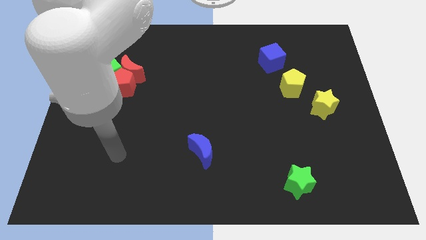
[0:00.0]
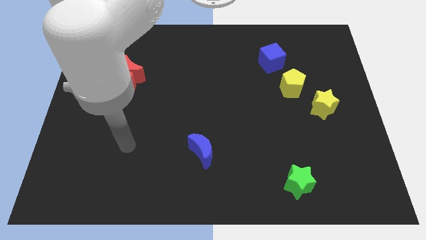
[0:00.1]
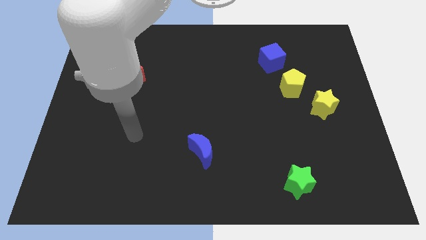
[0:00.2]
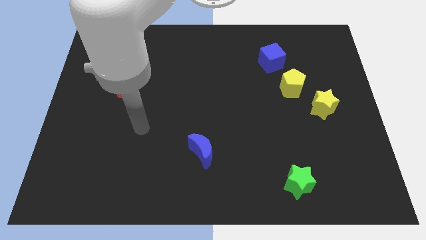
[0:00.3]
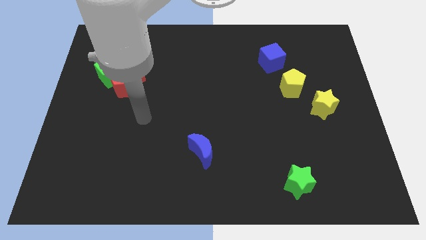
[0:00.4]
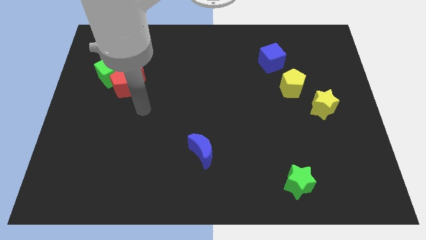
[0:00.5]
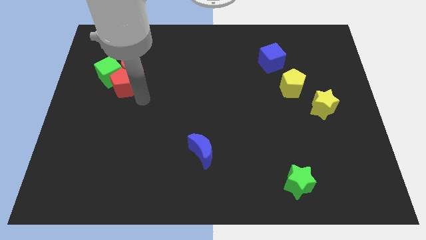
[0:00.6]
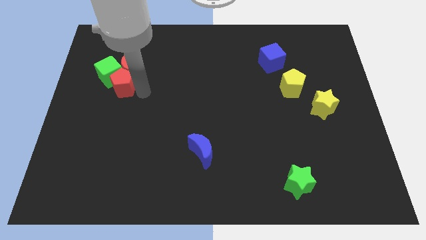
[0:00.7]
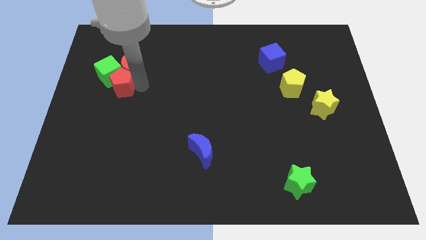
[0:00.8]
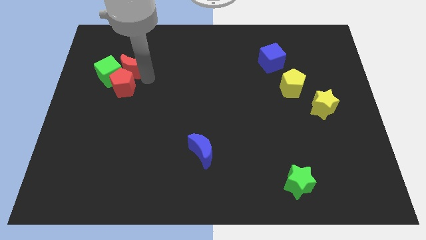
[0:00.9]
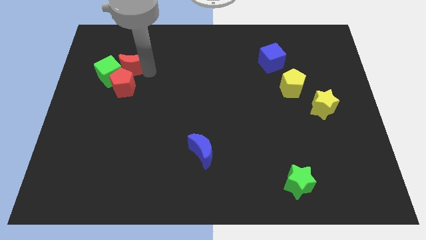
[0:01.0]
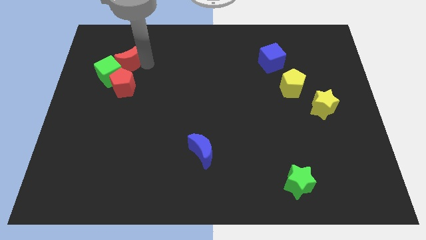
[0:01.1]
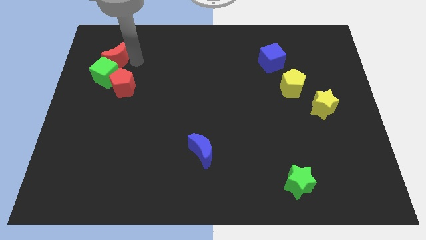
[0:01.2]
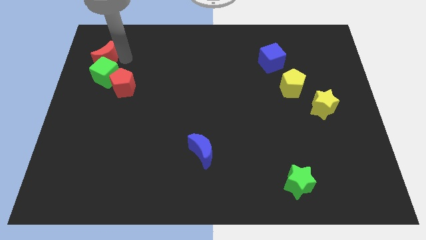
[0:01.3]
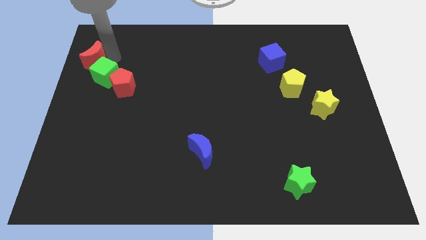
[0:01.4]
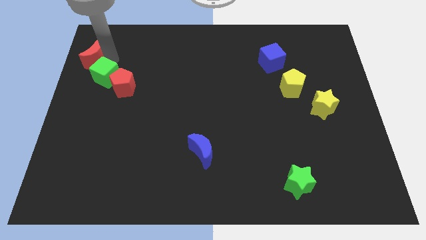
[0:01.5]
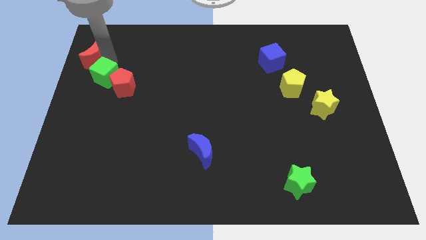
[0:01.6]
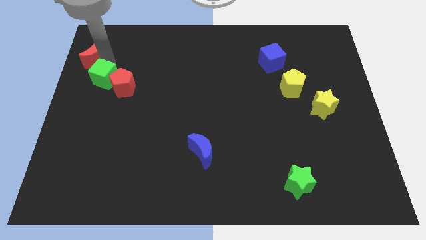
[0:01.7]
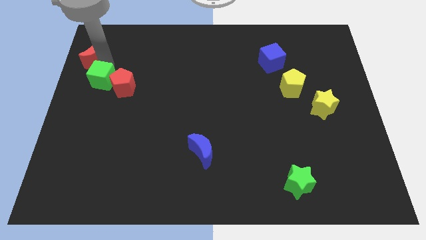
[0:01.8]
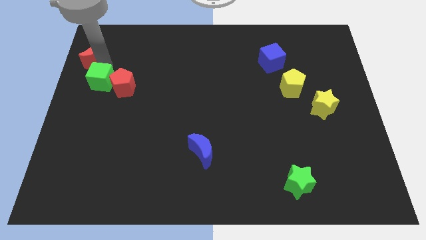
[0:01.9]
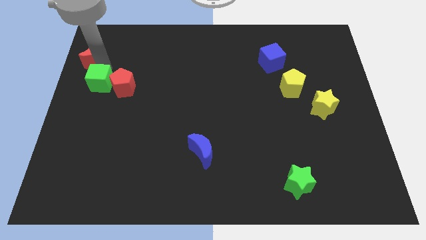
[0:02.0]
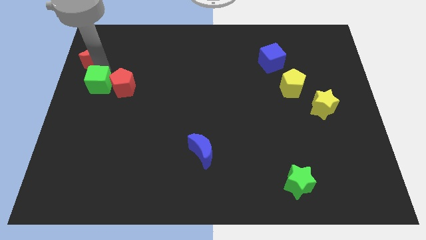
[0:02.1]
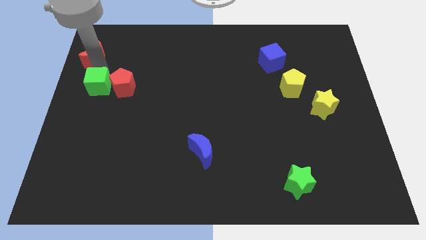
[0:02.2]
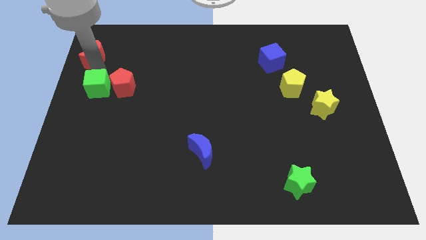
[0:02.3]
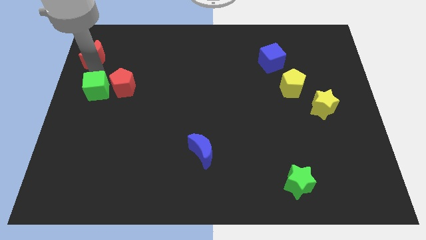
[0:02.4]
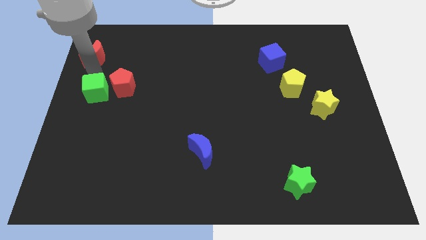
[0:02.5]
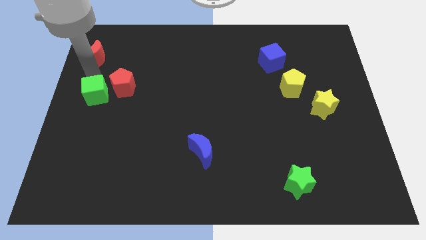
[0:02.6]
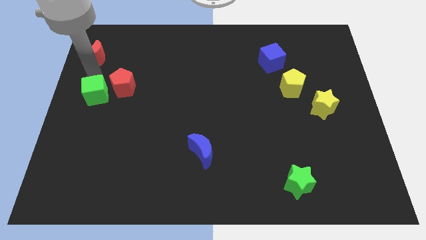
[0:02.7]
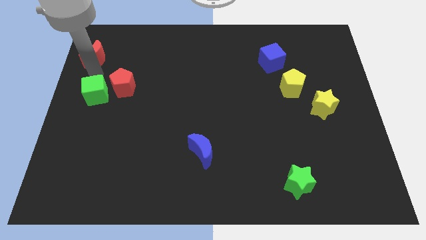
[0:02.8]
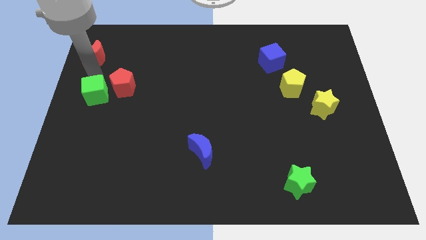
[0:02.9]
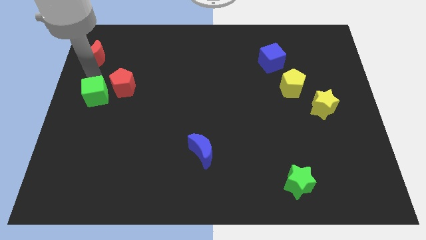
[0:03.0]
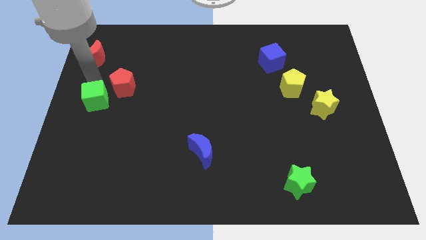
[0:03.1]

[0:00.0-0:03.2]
push the green cube down slightly

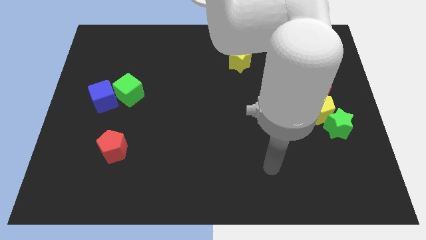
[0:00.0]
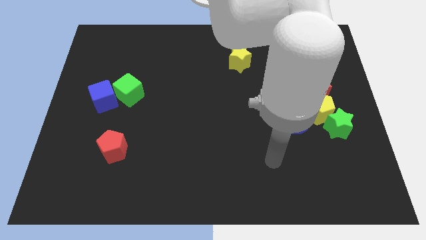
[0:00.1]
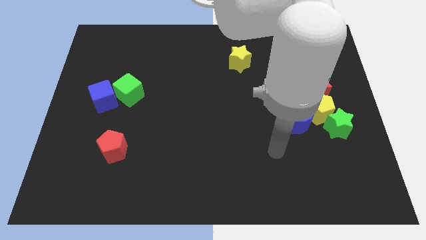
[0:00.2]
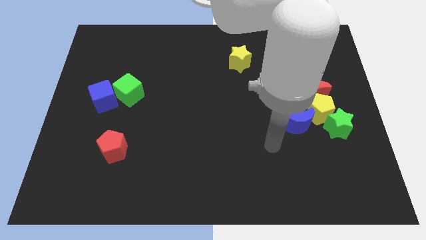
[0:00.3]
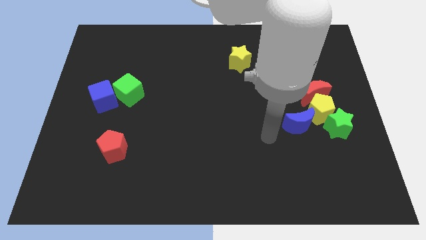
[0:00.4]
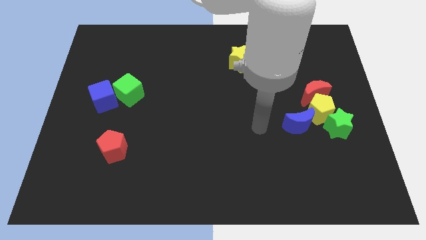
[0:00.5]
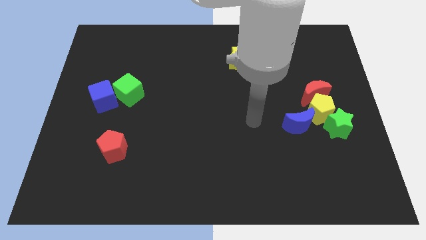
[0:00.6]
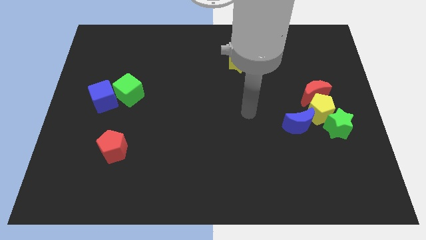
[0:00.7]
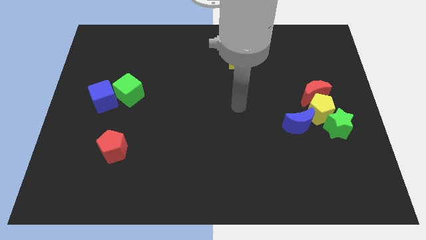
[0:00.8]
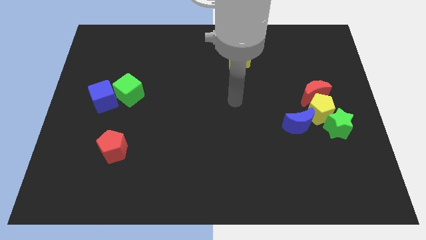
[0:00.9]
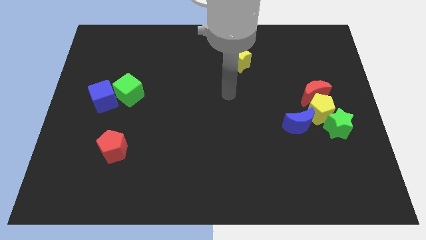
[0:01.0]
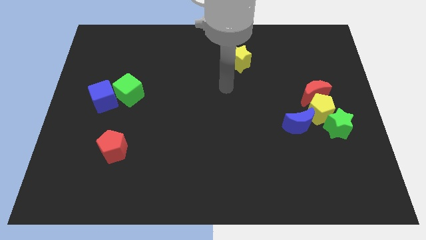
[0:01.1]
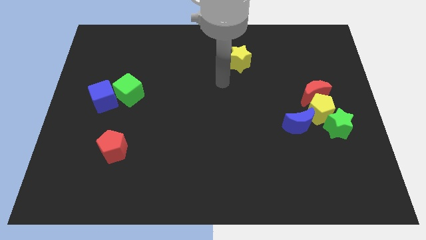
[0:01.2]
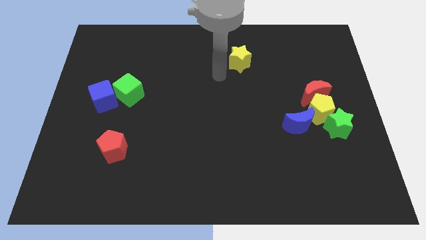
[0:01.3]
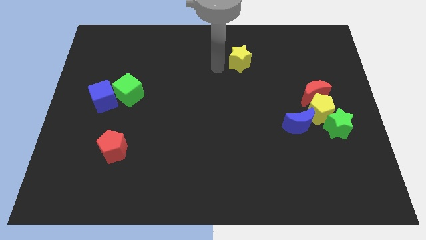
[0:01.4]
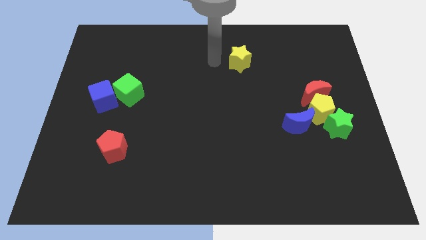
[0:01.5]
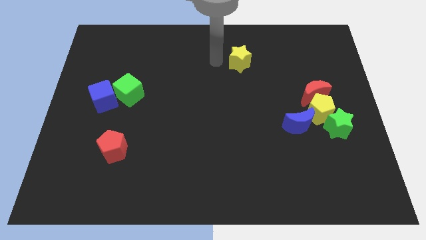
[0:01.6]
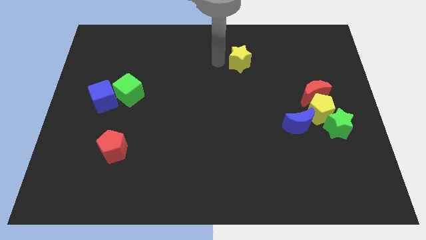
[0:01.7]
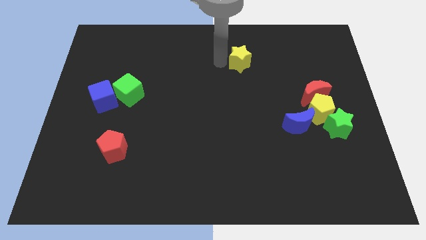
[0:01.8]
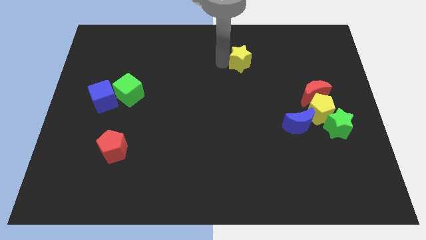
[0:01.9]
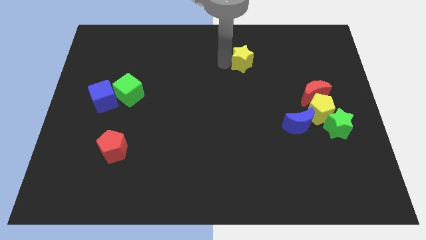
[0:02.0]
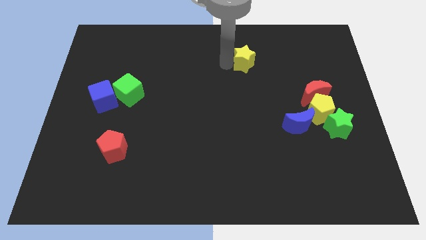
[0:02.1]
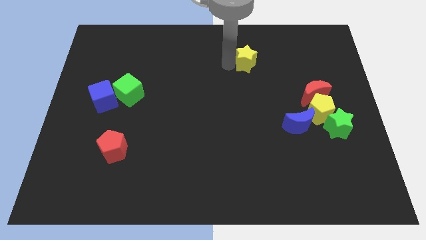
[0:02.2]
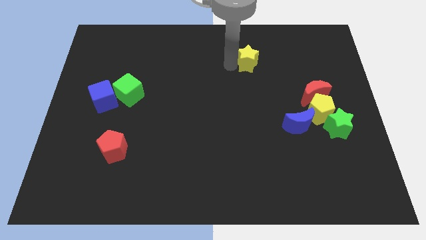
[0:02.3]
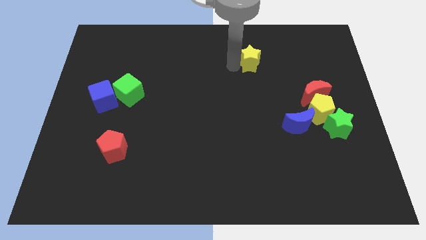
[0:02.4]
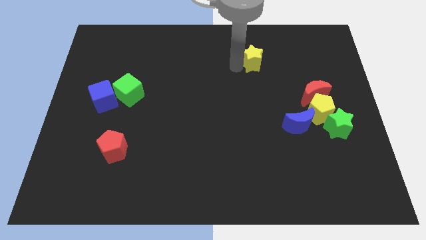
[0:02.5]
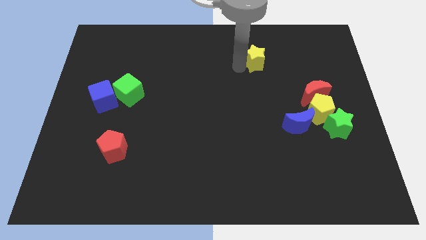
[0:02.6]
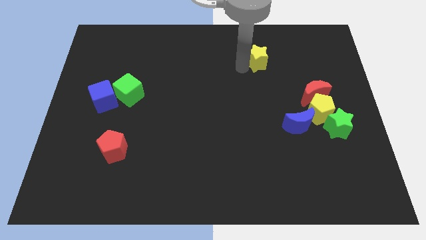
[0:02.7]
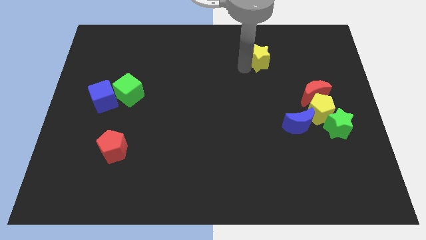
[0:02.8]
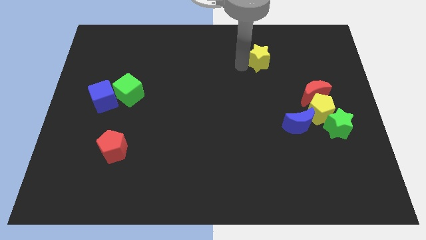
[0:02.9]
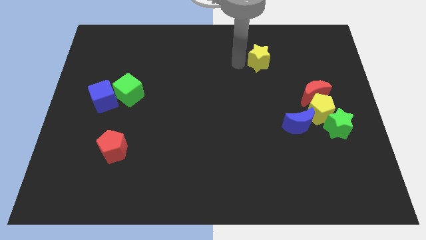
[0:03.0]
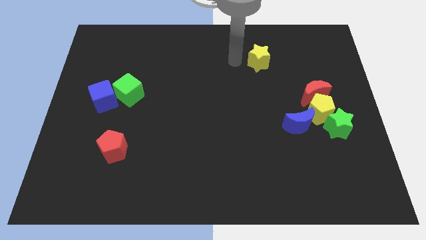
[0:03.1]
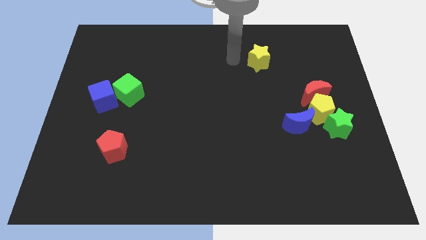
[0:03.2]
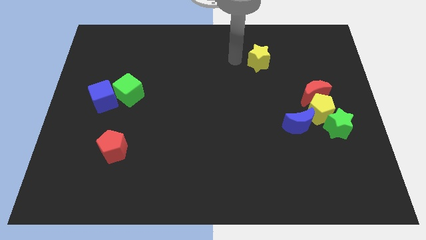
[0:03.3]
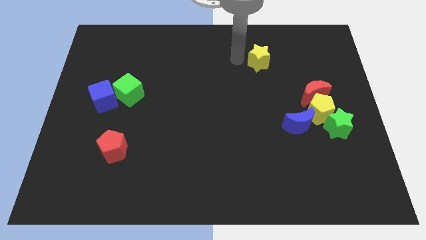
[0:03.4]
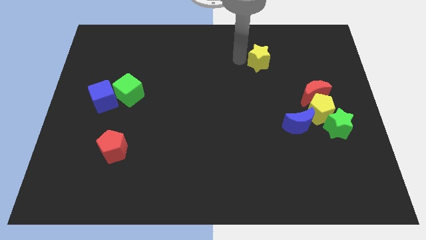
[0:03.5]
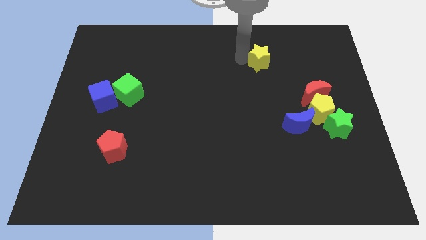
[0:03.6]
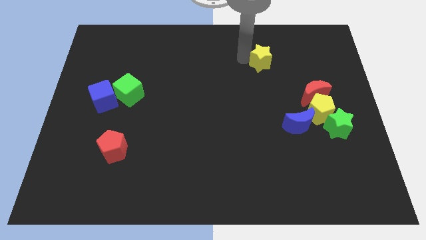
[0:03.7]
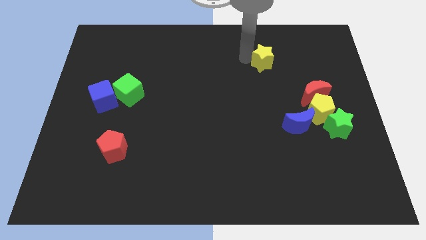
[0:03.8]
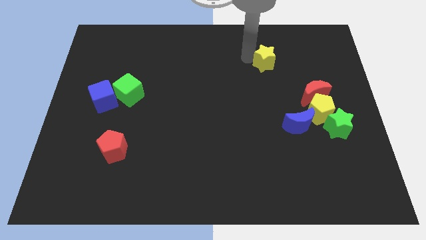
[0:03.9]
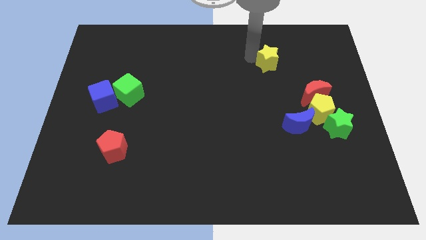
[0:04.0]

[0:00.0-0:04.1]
slightly push the yellow star right

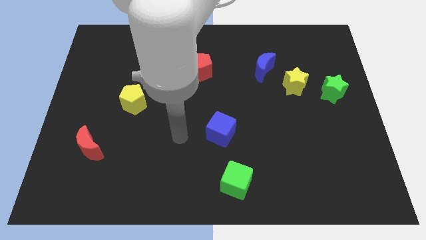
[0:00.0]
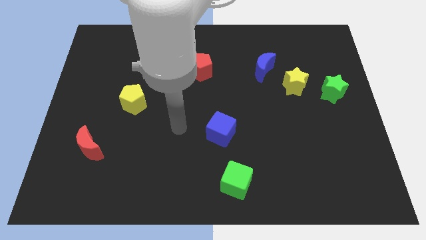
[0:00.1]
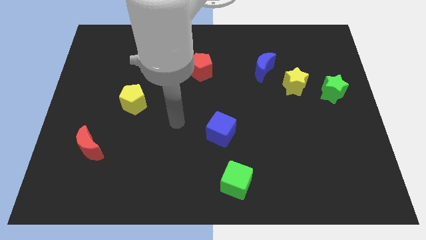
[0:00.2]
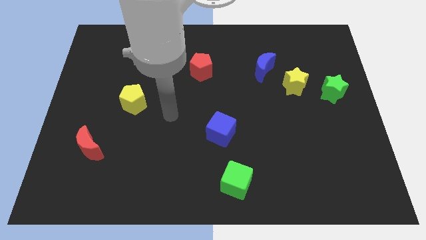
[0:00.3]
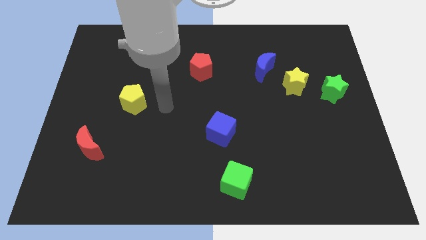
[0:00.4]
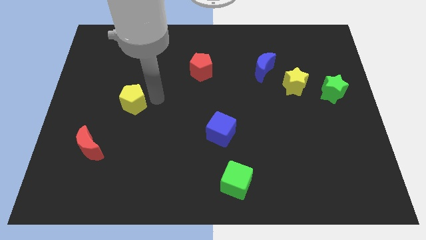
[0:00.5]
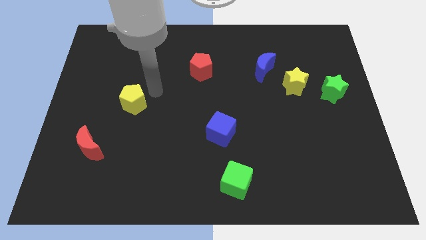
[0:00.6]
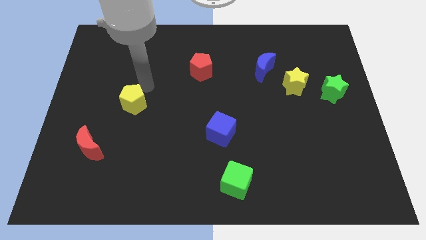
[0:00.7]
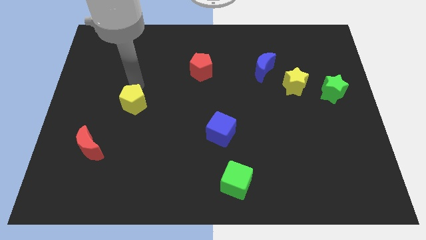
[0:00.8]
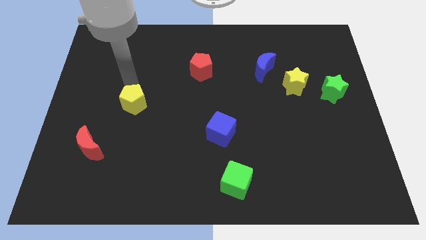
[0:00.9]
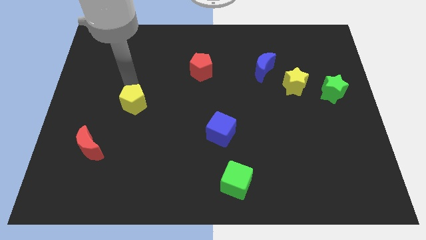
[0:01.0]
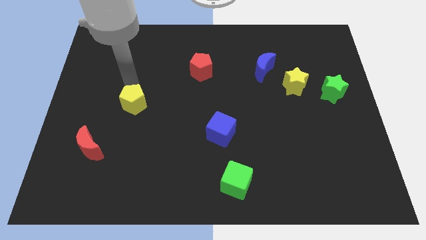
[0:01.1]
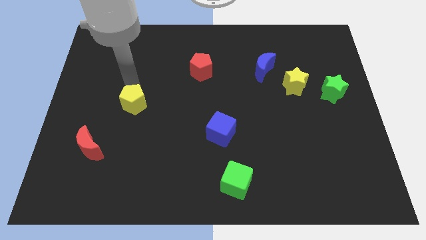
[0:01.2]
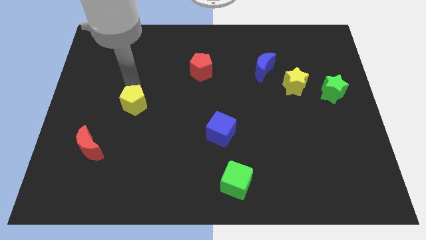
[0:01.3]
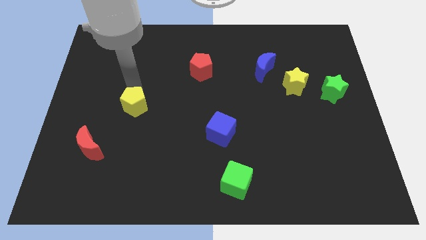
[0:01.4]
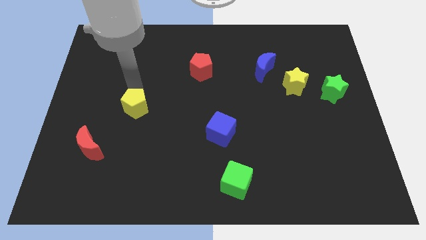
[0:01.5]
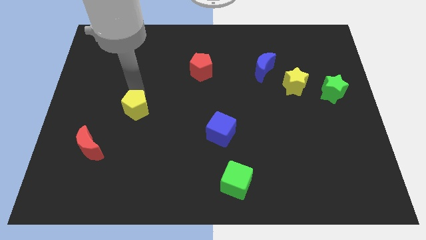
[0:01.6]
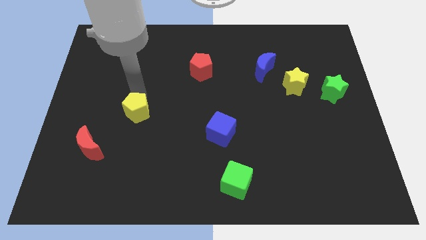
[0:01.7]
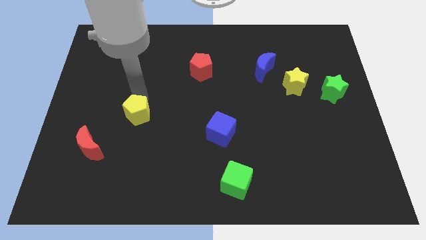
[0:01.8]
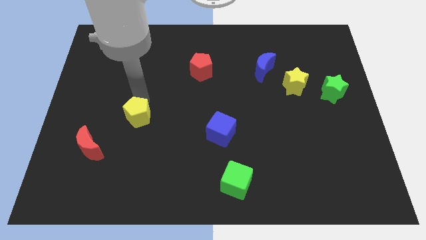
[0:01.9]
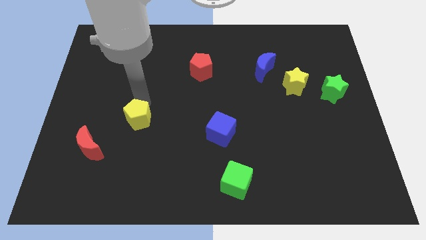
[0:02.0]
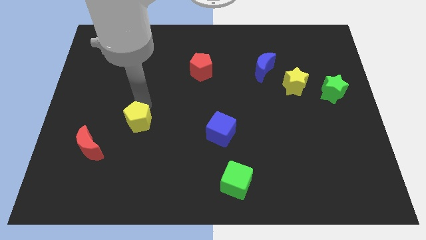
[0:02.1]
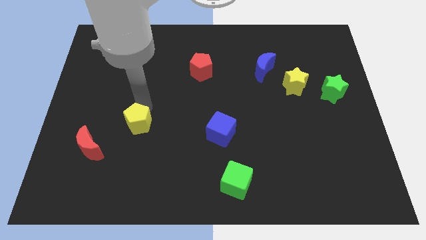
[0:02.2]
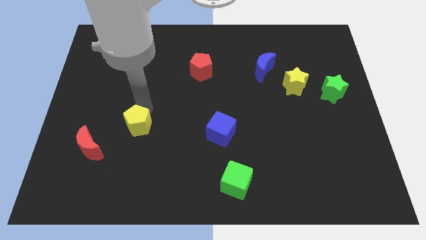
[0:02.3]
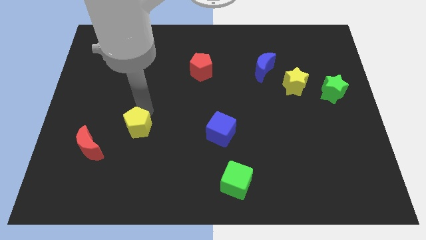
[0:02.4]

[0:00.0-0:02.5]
slide the yellow pentagon a bit down
